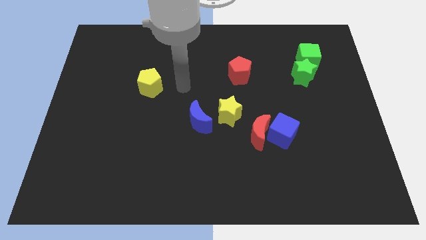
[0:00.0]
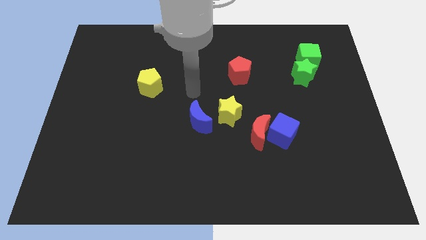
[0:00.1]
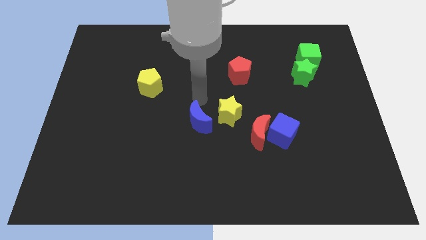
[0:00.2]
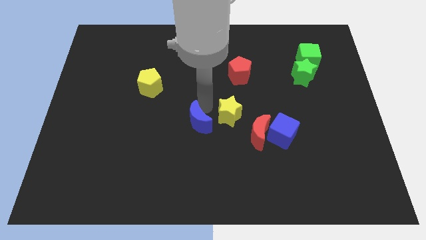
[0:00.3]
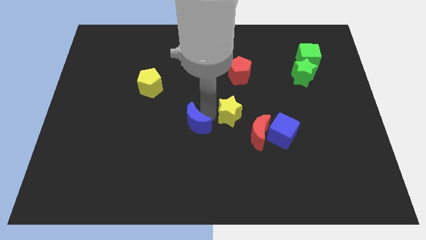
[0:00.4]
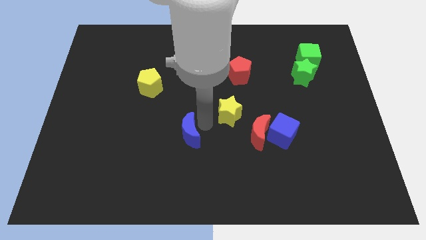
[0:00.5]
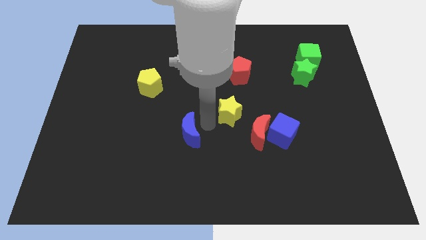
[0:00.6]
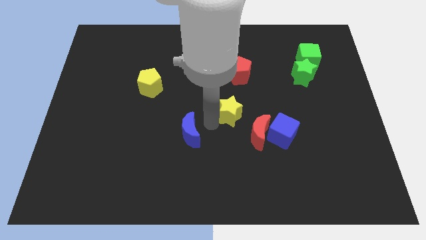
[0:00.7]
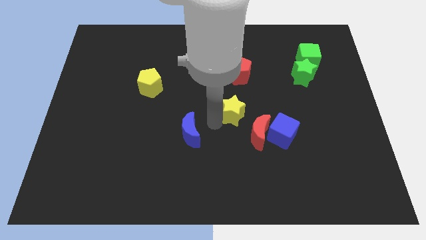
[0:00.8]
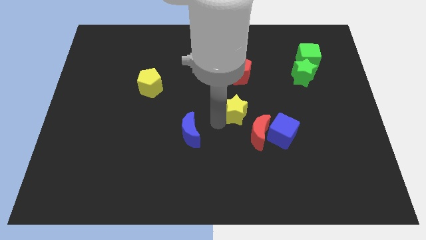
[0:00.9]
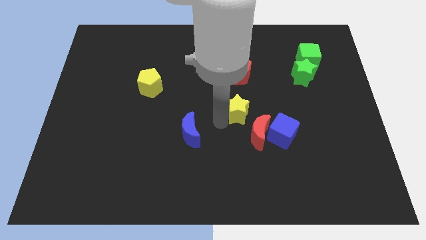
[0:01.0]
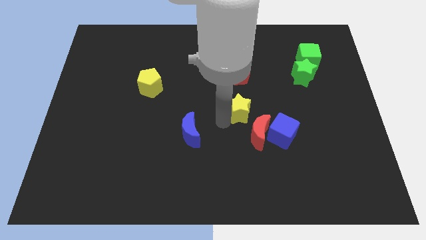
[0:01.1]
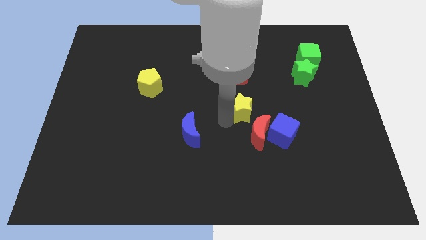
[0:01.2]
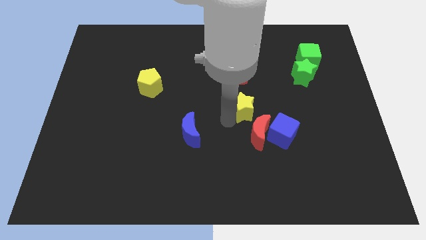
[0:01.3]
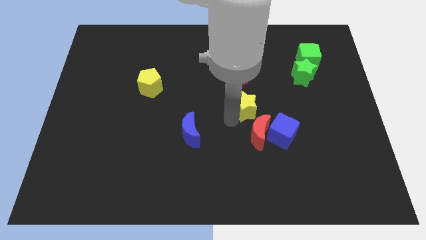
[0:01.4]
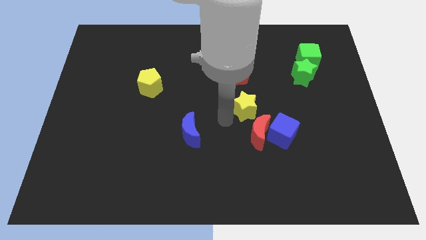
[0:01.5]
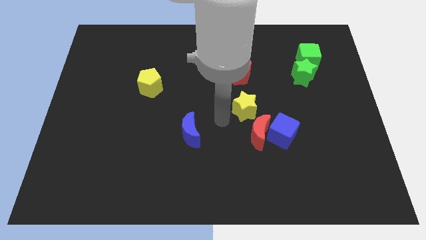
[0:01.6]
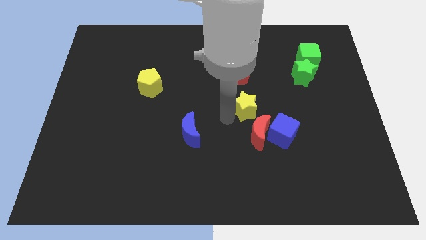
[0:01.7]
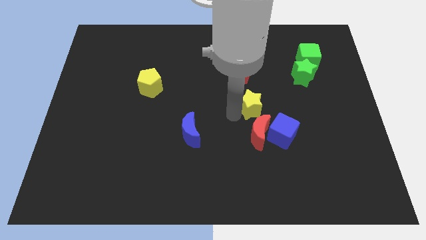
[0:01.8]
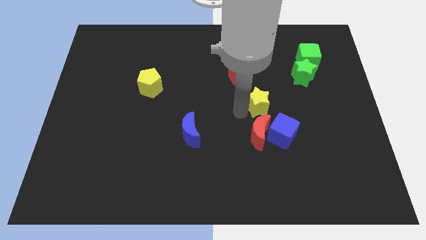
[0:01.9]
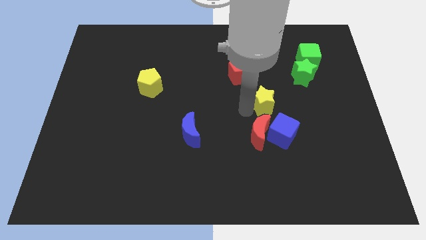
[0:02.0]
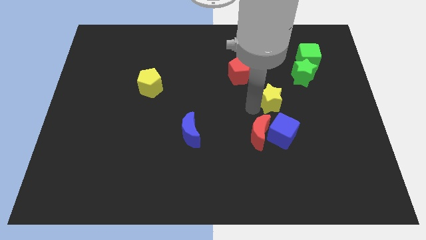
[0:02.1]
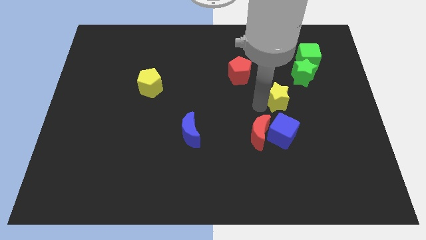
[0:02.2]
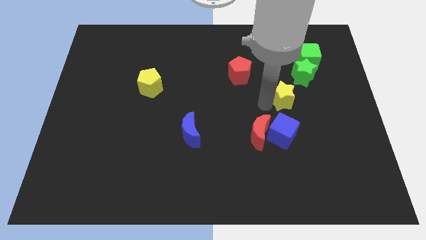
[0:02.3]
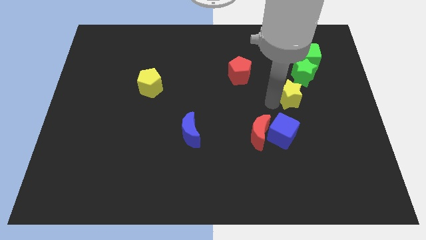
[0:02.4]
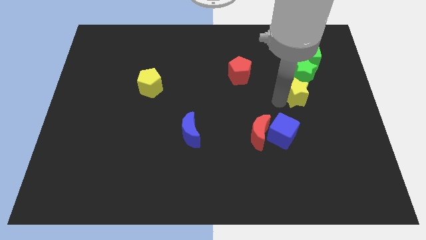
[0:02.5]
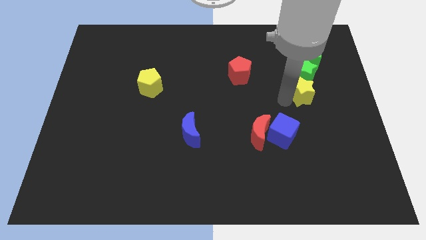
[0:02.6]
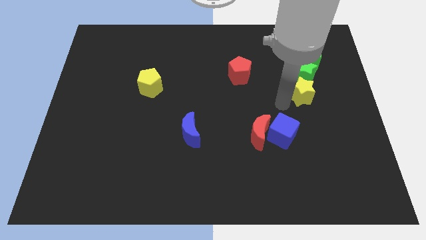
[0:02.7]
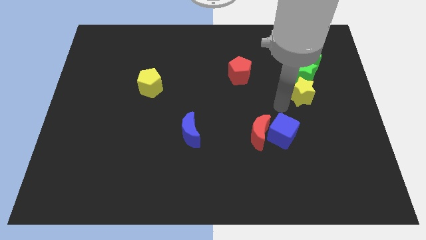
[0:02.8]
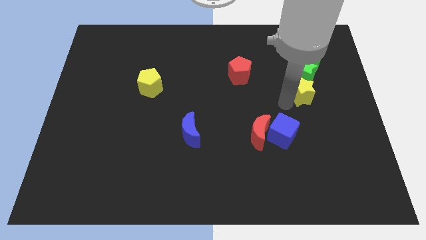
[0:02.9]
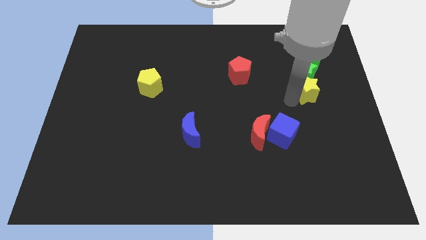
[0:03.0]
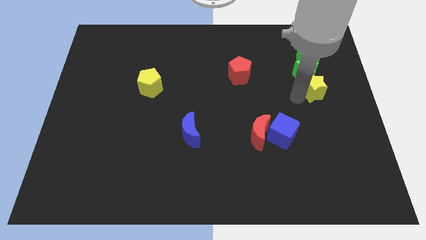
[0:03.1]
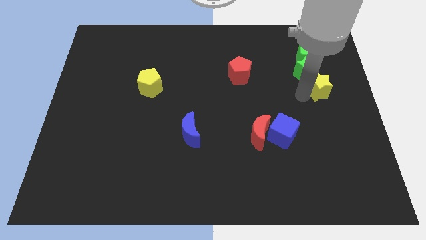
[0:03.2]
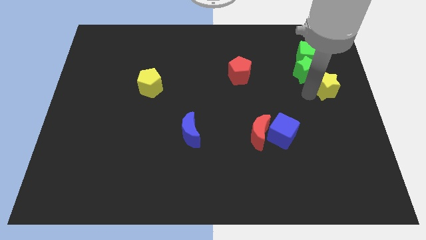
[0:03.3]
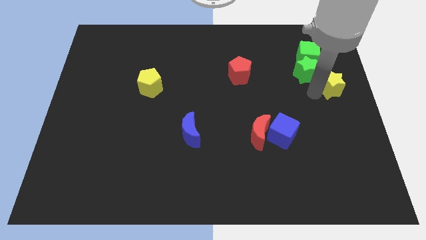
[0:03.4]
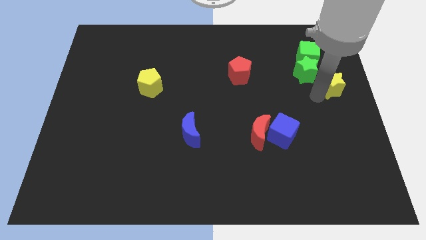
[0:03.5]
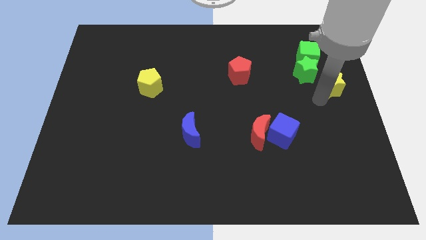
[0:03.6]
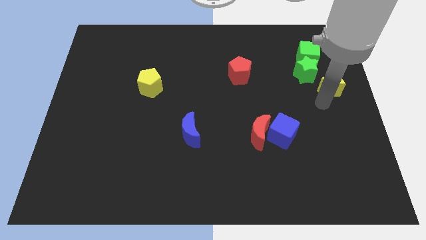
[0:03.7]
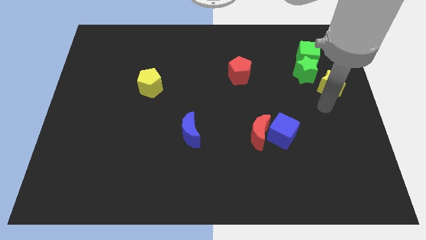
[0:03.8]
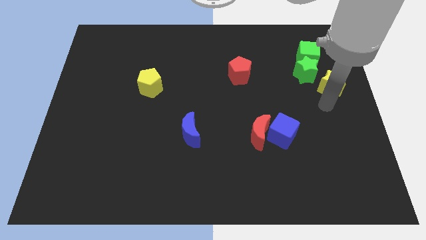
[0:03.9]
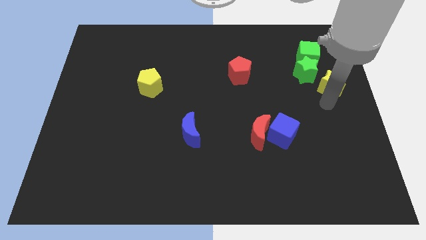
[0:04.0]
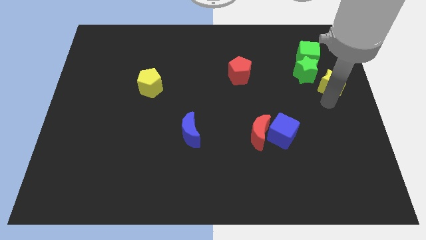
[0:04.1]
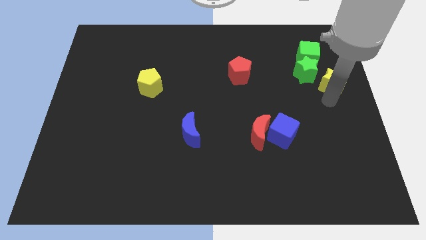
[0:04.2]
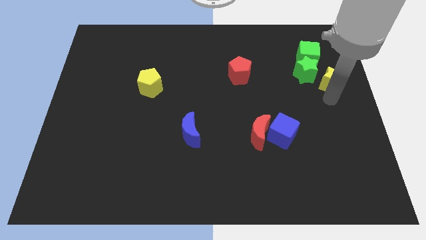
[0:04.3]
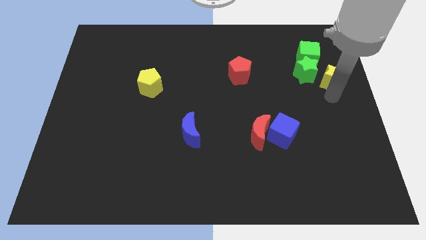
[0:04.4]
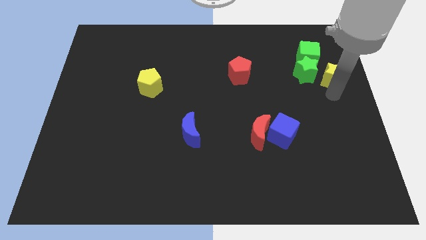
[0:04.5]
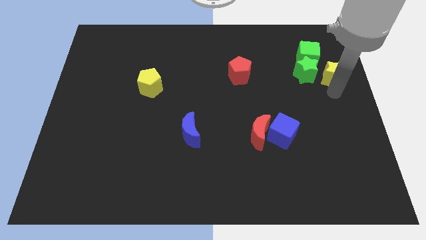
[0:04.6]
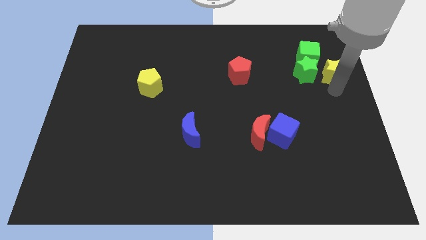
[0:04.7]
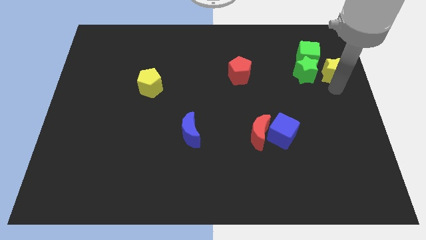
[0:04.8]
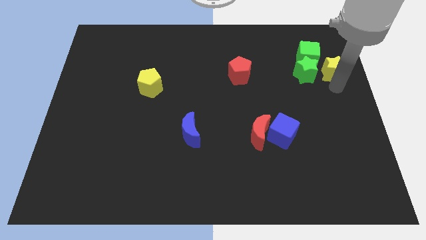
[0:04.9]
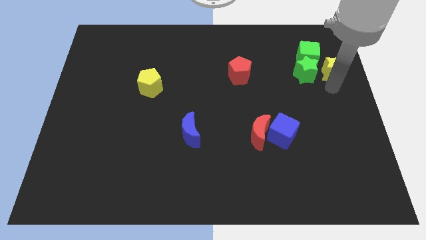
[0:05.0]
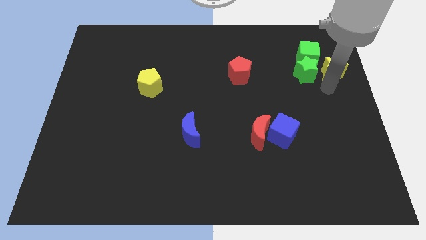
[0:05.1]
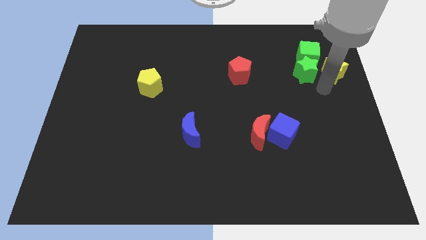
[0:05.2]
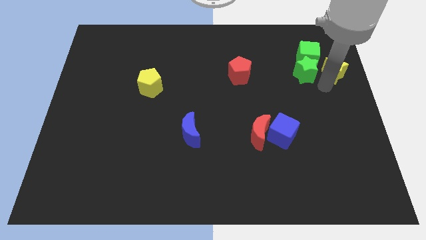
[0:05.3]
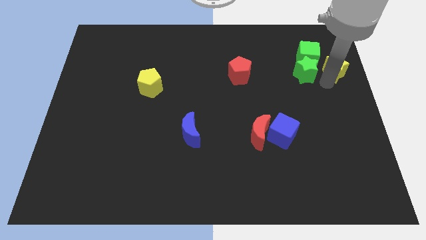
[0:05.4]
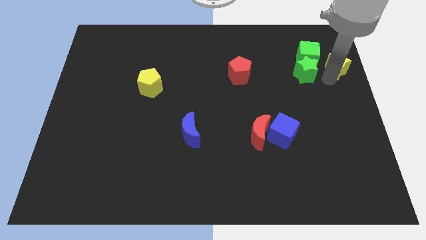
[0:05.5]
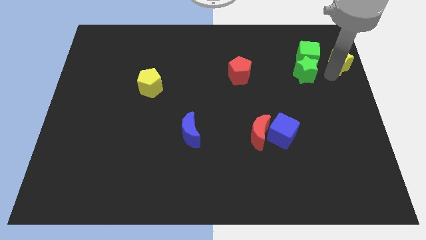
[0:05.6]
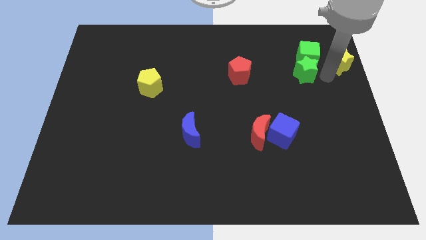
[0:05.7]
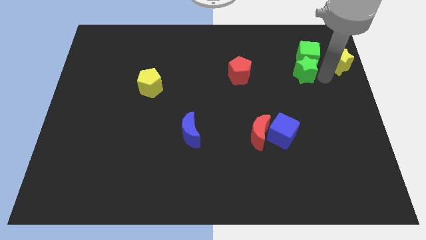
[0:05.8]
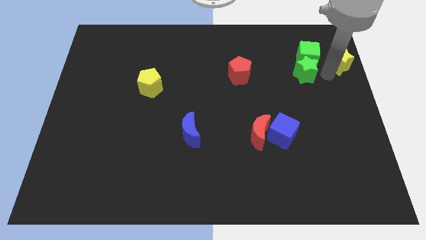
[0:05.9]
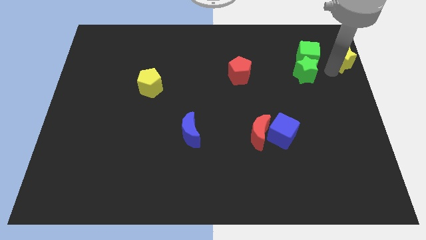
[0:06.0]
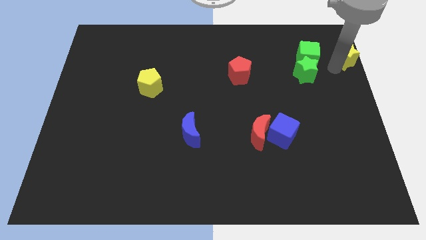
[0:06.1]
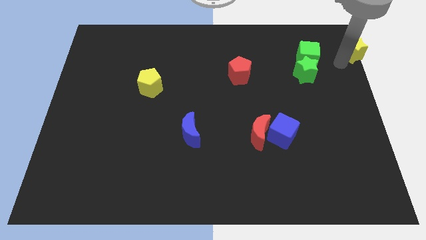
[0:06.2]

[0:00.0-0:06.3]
move the yellow star to the top right

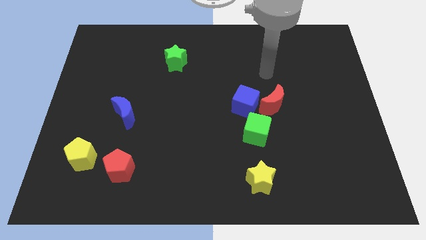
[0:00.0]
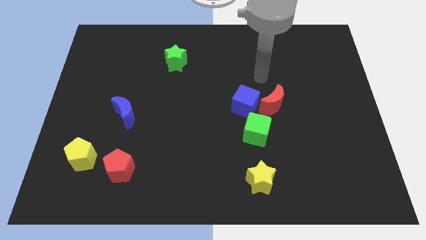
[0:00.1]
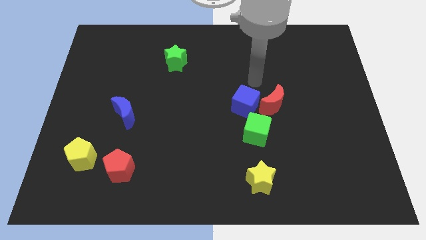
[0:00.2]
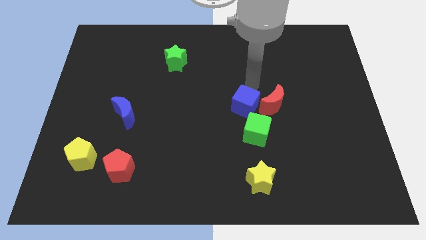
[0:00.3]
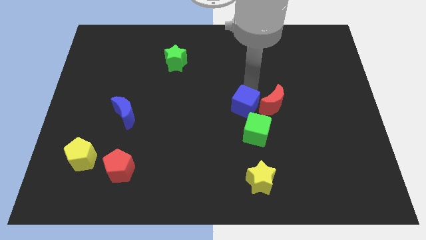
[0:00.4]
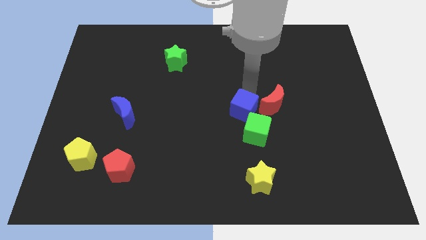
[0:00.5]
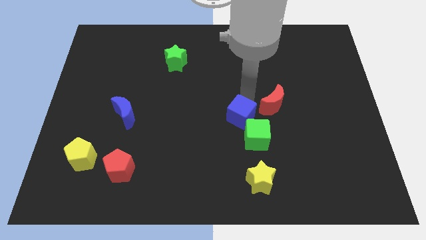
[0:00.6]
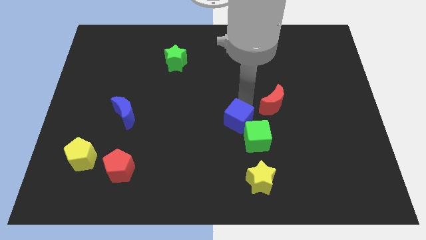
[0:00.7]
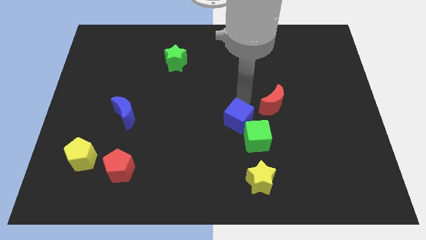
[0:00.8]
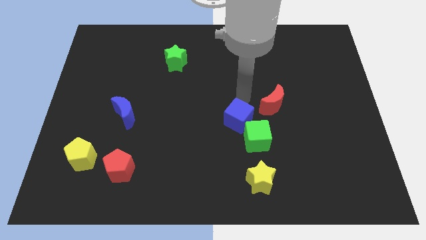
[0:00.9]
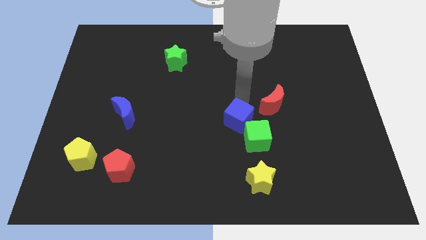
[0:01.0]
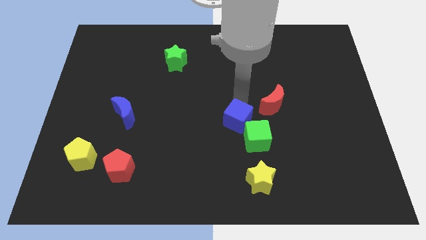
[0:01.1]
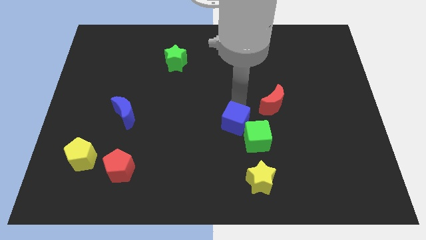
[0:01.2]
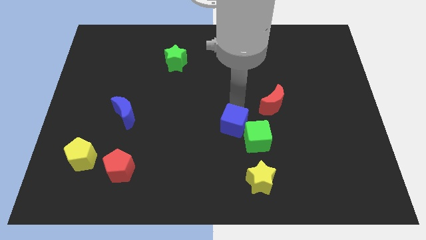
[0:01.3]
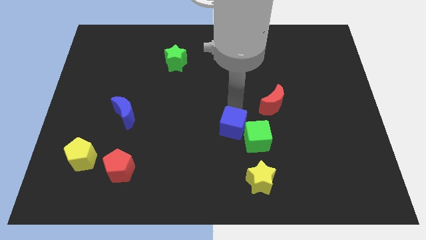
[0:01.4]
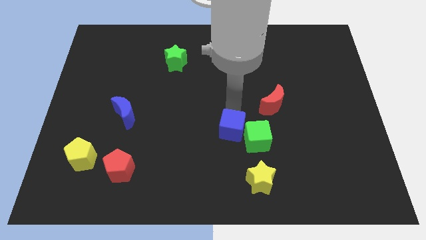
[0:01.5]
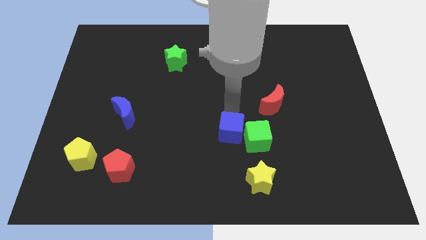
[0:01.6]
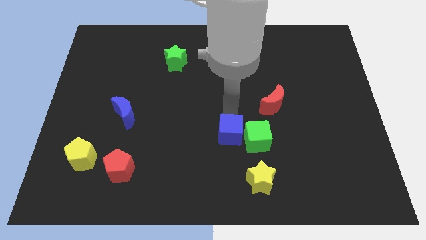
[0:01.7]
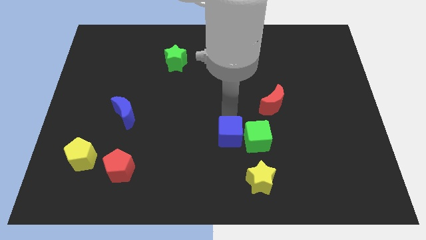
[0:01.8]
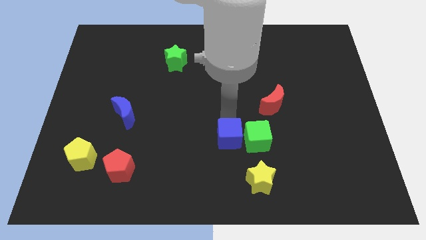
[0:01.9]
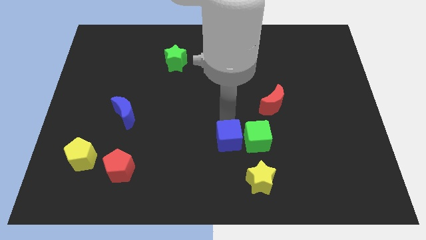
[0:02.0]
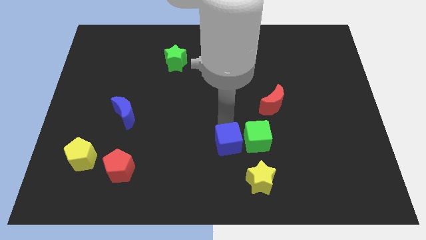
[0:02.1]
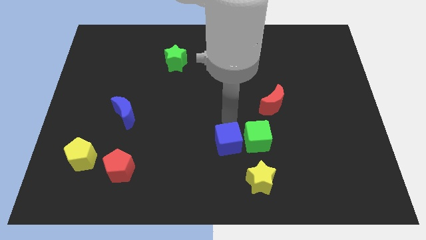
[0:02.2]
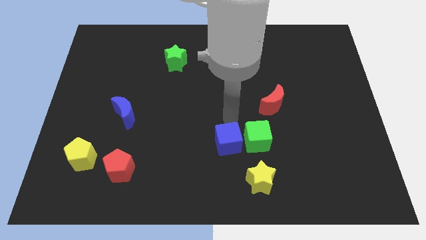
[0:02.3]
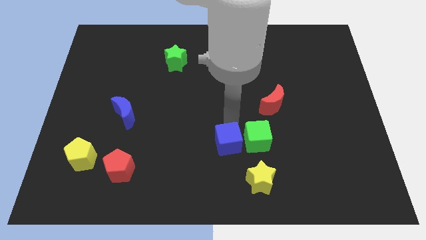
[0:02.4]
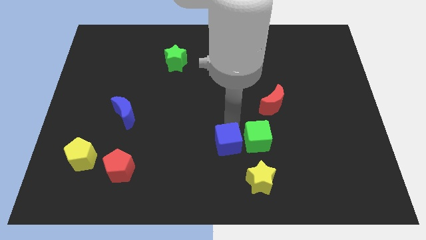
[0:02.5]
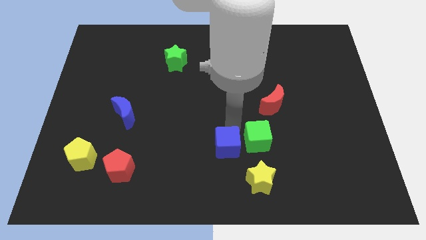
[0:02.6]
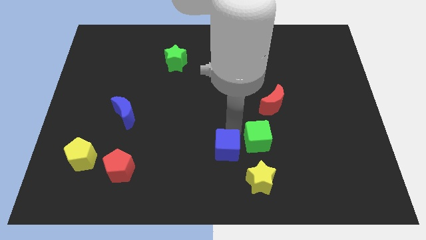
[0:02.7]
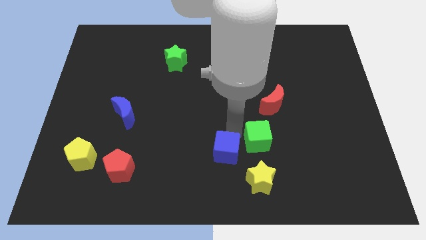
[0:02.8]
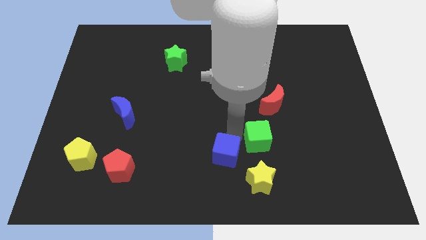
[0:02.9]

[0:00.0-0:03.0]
move the blue cube to the bottom
